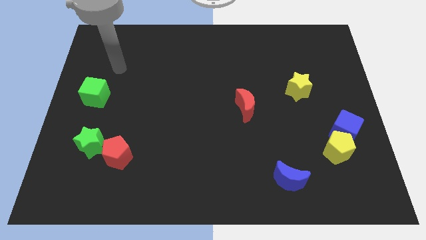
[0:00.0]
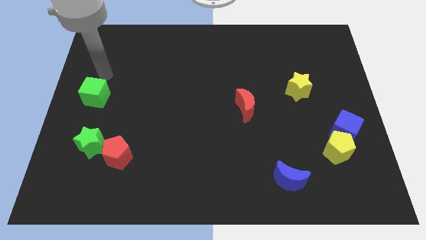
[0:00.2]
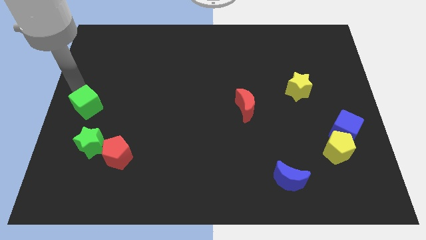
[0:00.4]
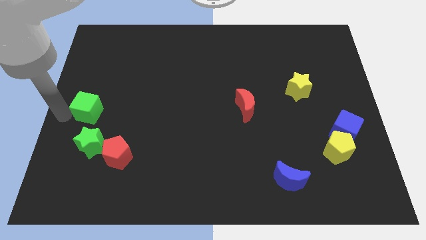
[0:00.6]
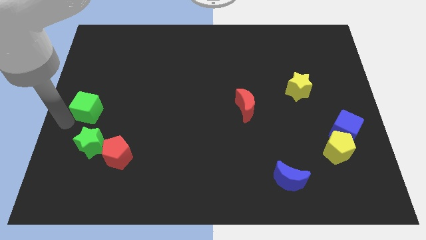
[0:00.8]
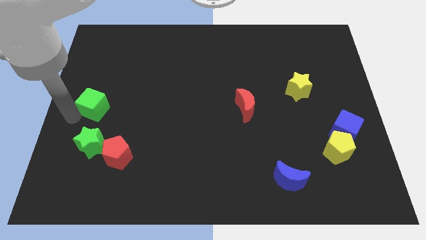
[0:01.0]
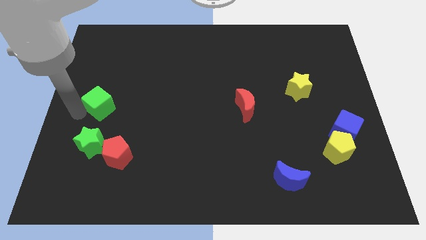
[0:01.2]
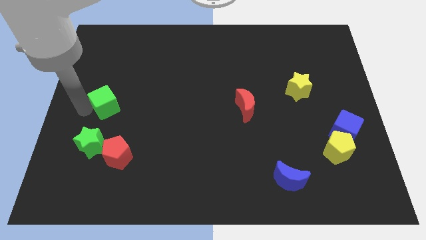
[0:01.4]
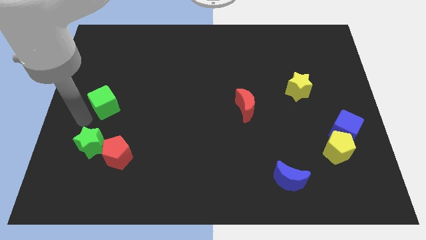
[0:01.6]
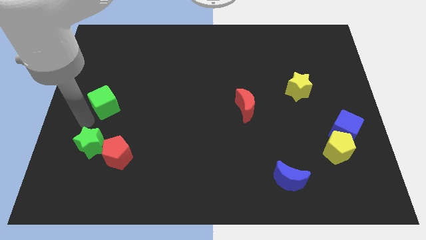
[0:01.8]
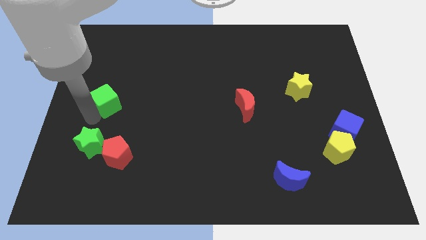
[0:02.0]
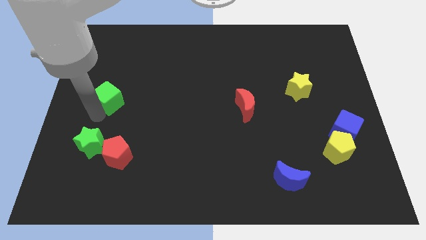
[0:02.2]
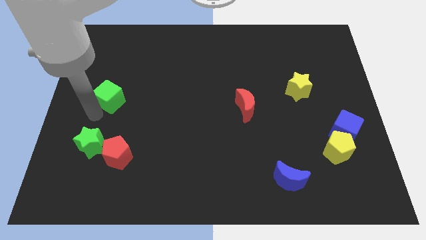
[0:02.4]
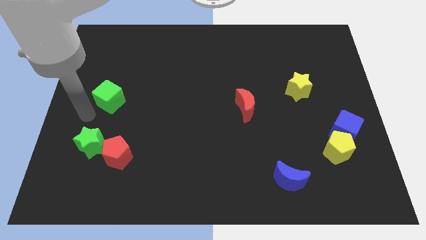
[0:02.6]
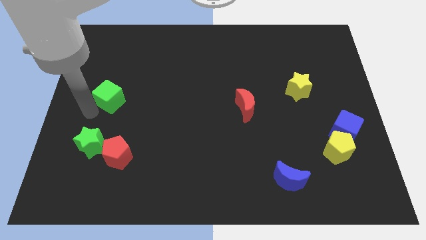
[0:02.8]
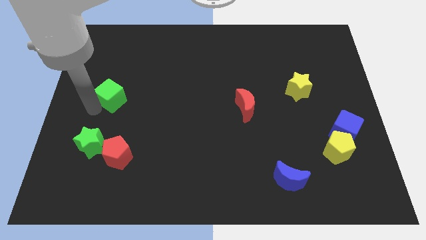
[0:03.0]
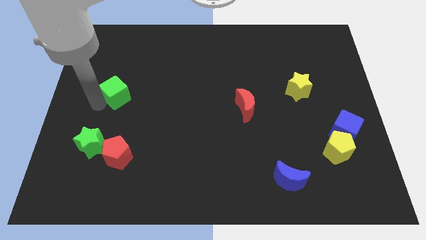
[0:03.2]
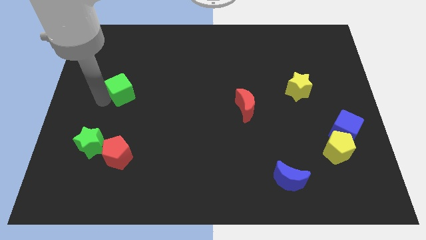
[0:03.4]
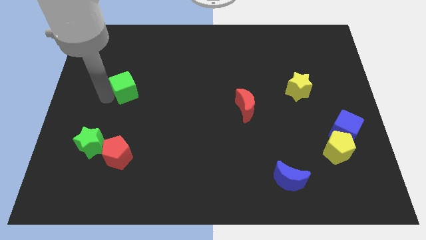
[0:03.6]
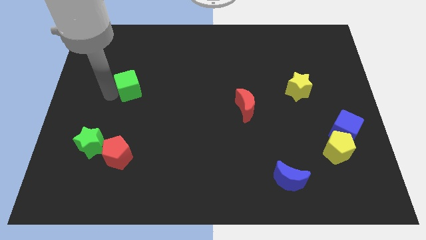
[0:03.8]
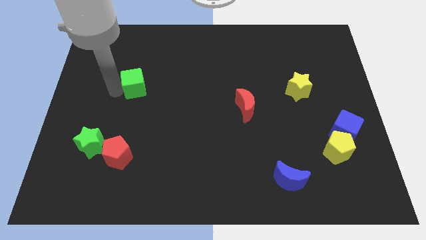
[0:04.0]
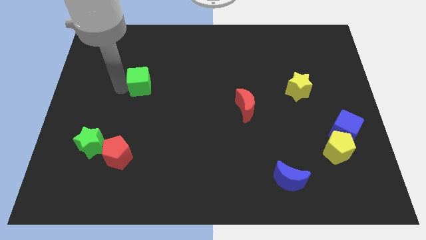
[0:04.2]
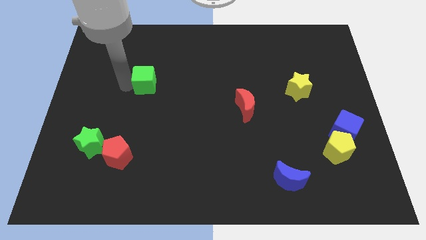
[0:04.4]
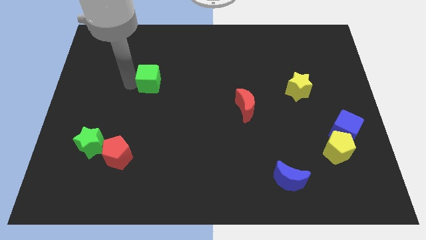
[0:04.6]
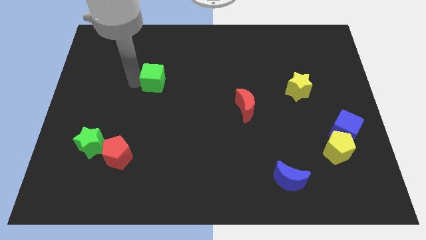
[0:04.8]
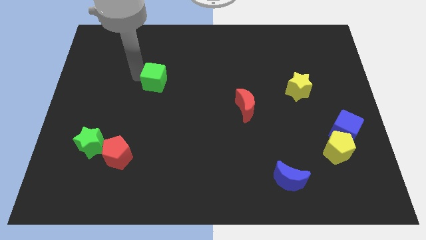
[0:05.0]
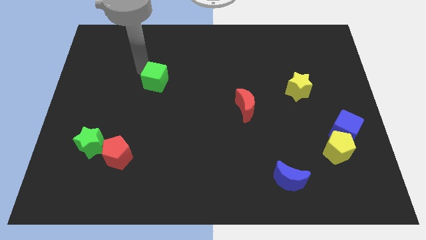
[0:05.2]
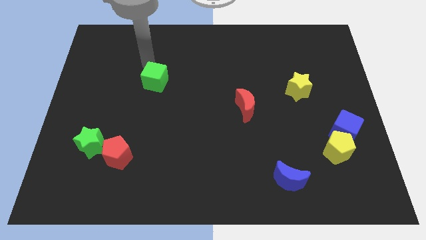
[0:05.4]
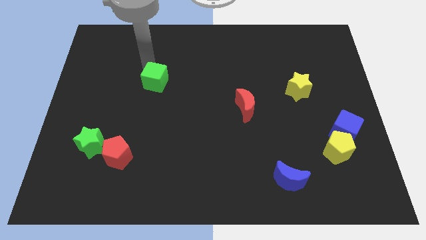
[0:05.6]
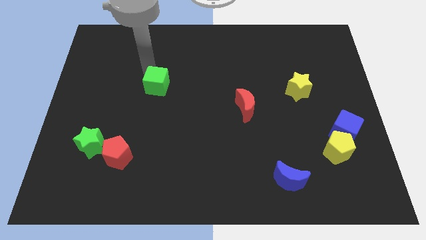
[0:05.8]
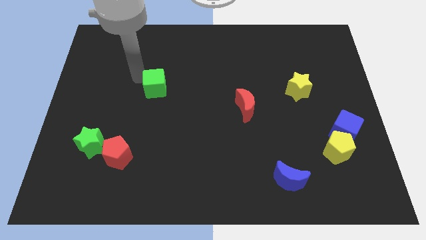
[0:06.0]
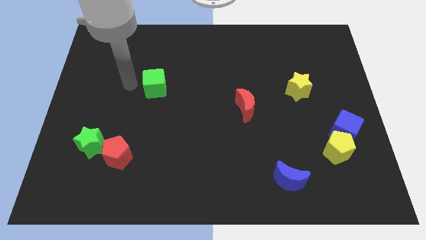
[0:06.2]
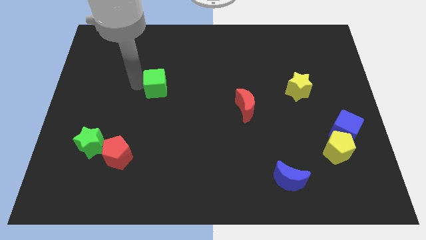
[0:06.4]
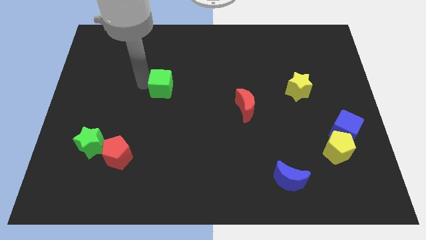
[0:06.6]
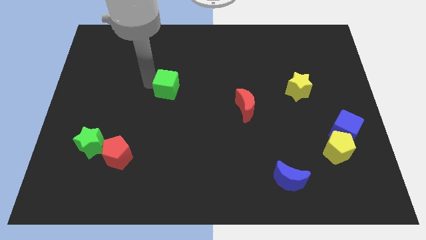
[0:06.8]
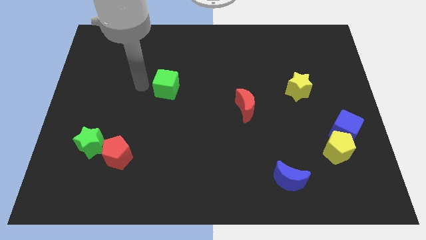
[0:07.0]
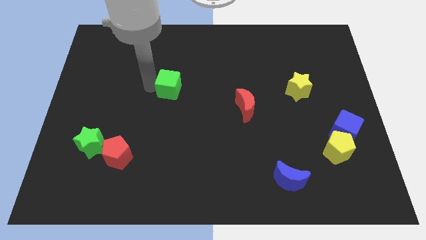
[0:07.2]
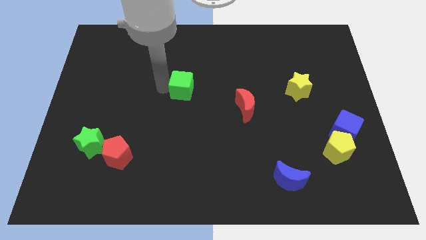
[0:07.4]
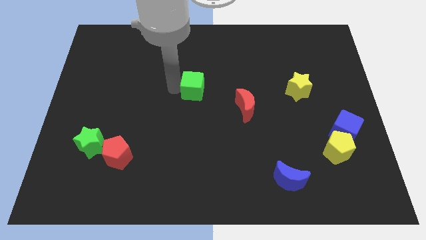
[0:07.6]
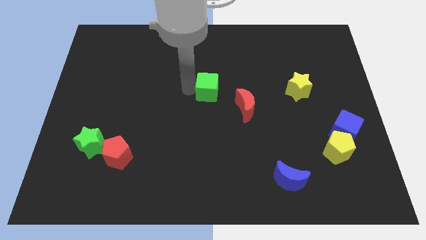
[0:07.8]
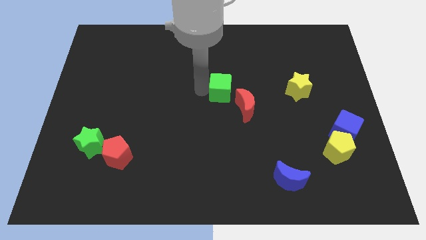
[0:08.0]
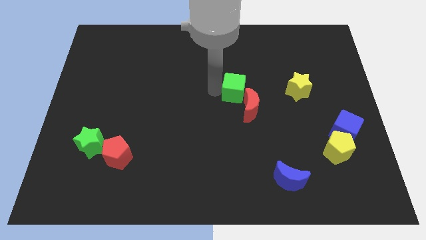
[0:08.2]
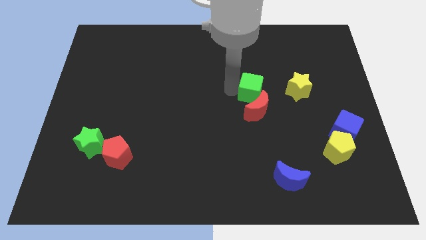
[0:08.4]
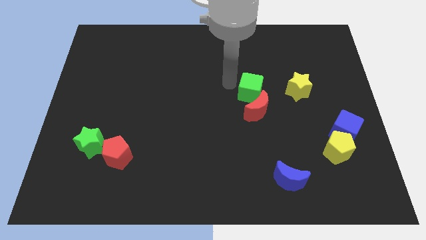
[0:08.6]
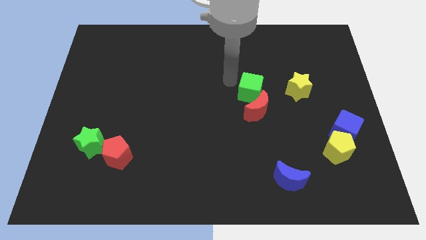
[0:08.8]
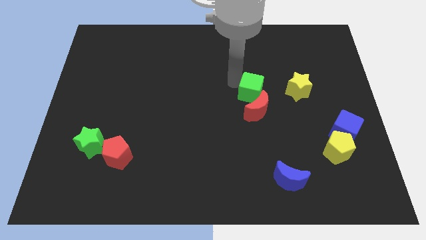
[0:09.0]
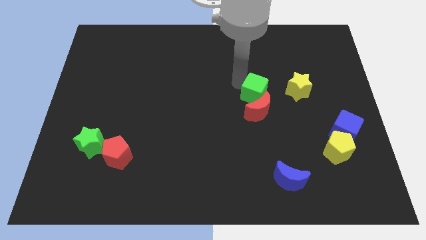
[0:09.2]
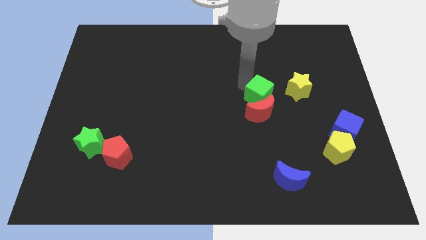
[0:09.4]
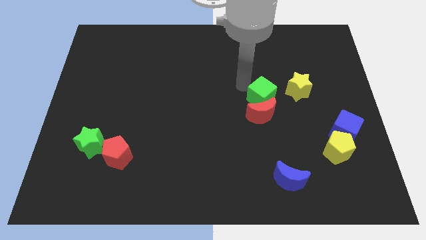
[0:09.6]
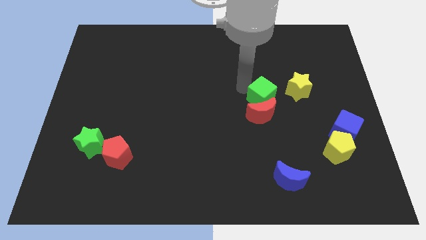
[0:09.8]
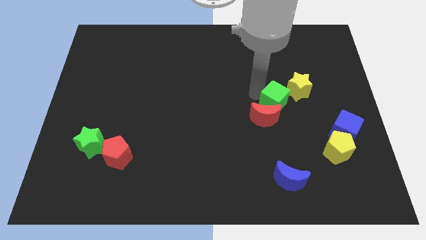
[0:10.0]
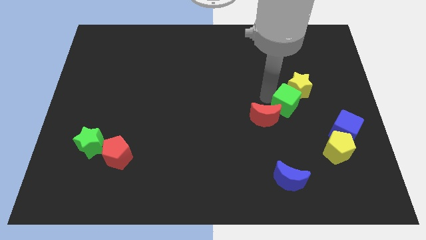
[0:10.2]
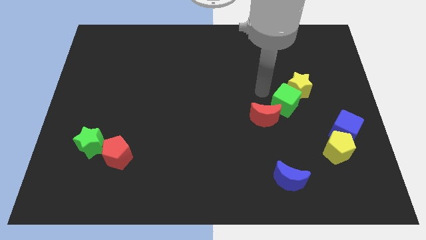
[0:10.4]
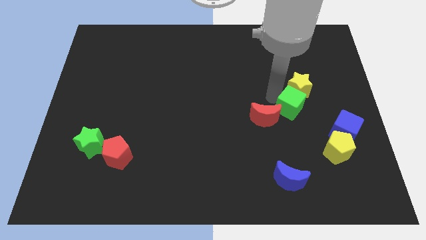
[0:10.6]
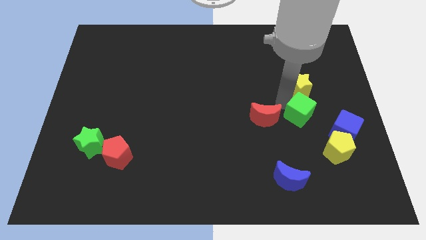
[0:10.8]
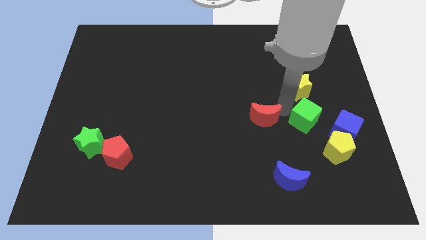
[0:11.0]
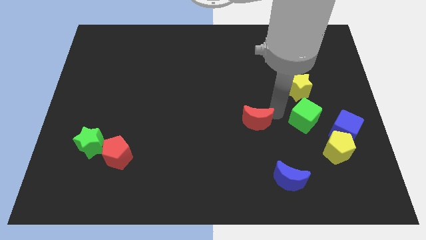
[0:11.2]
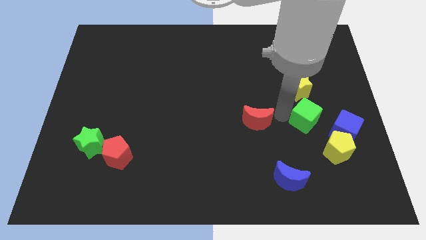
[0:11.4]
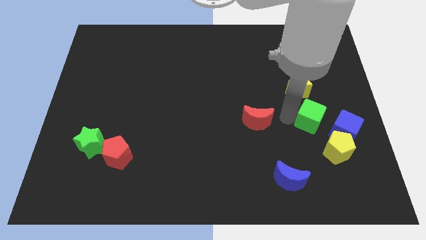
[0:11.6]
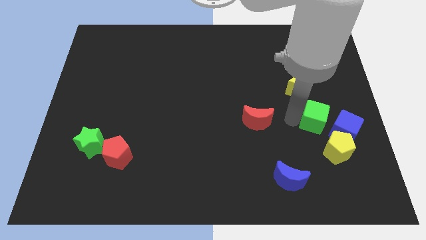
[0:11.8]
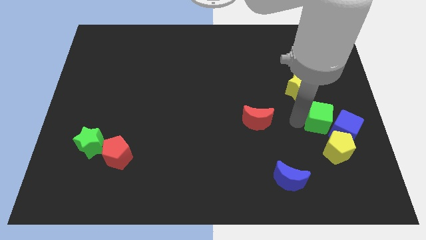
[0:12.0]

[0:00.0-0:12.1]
slide the green cube to the blue cube
